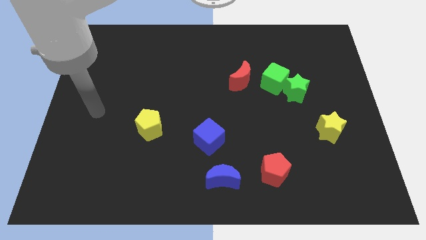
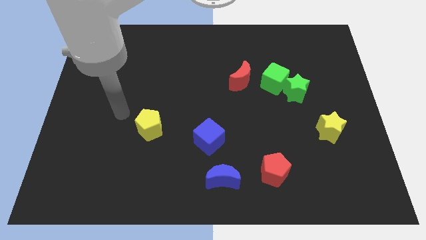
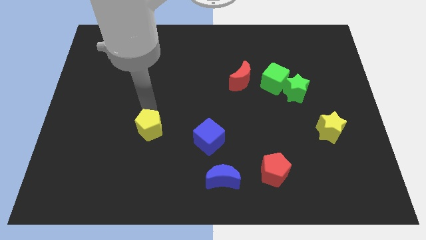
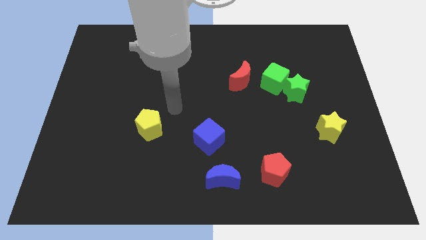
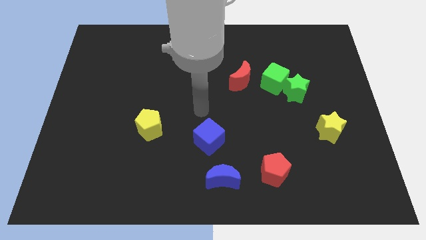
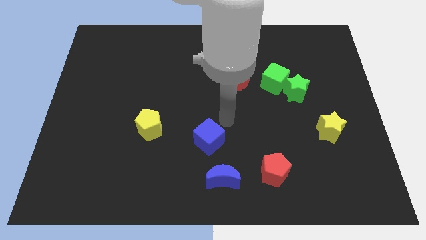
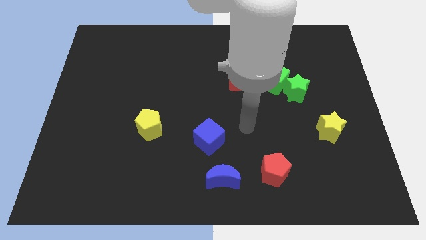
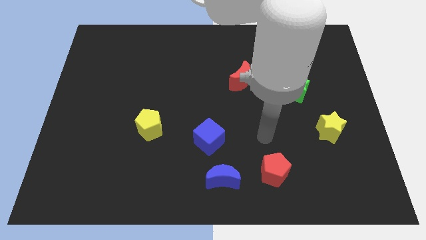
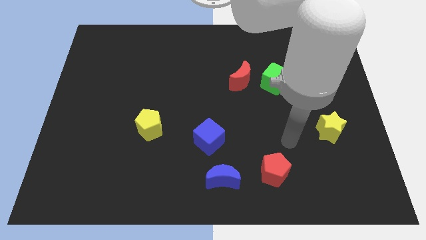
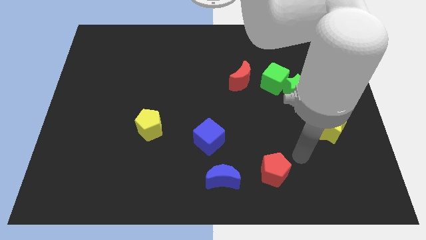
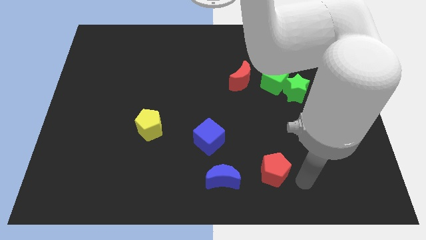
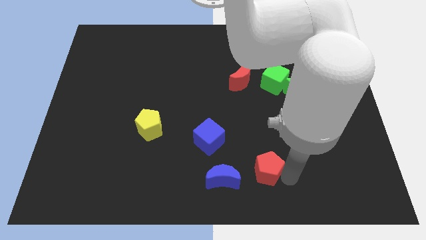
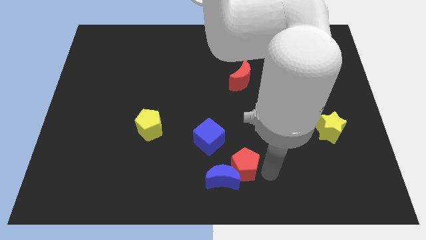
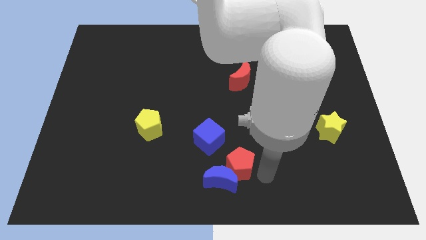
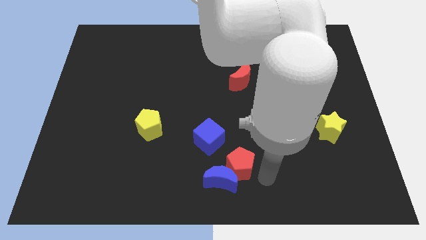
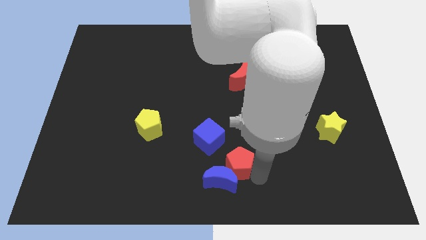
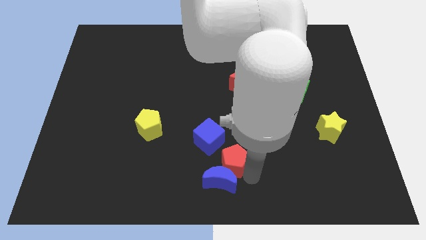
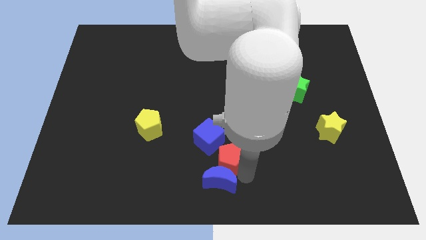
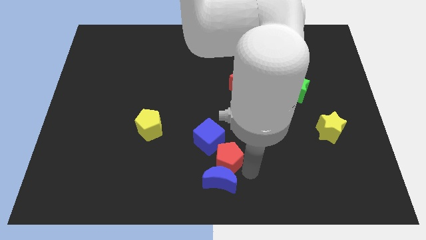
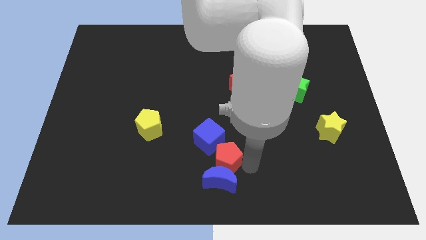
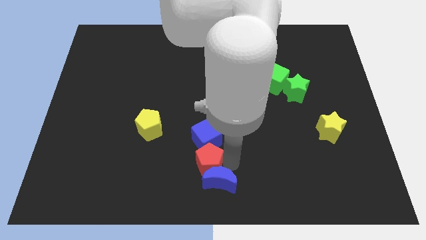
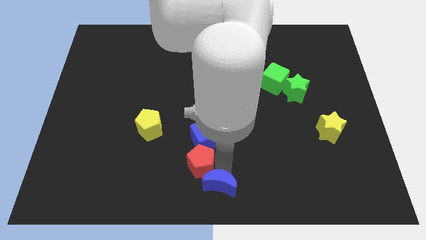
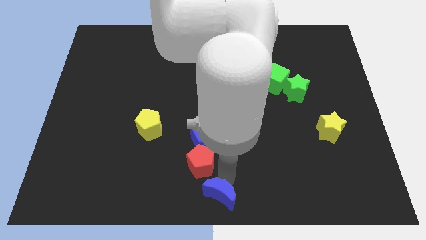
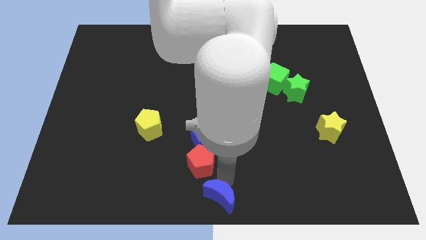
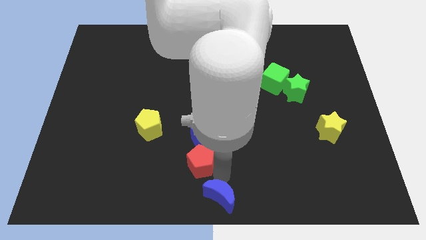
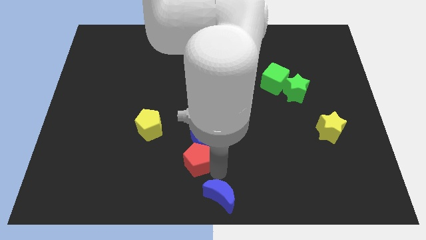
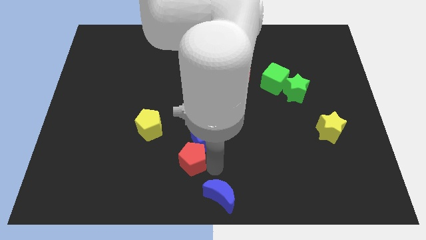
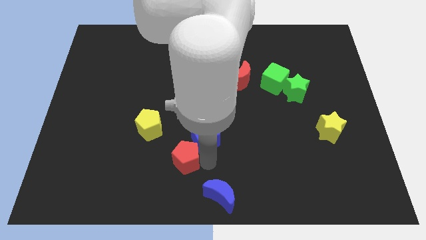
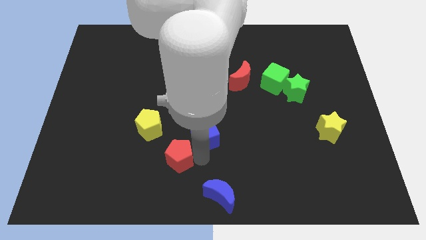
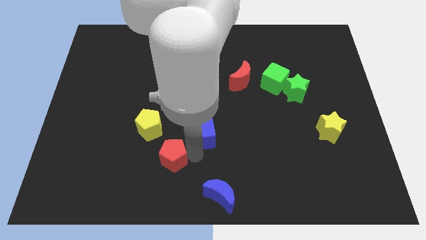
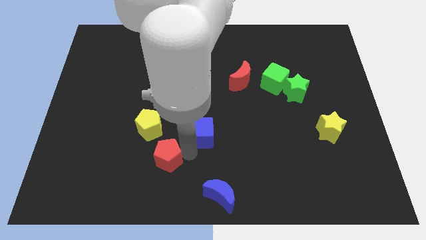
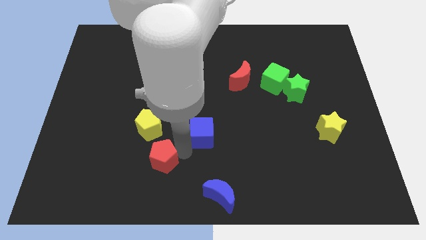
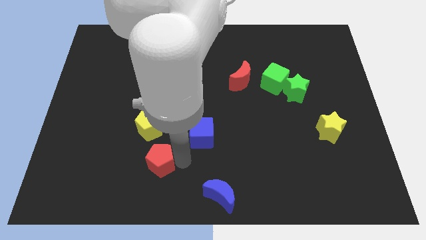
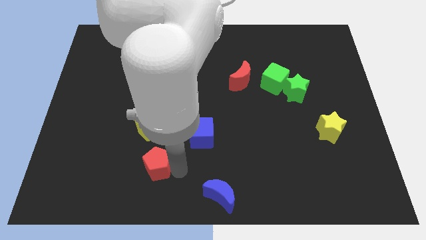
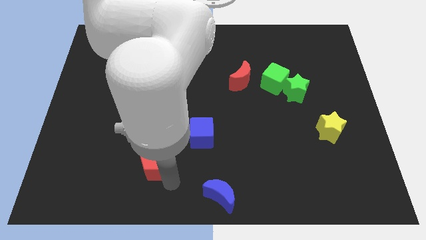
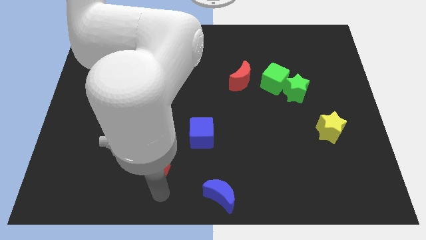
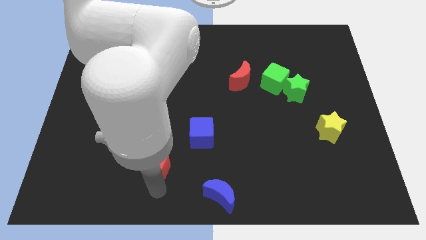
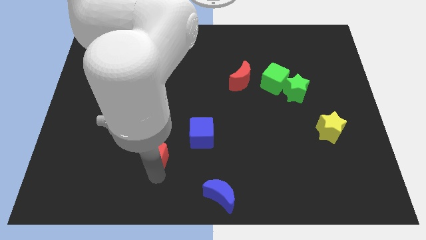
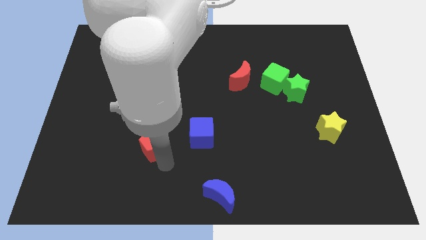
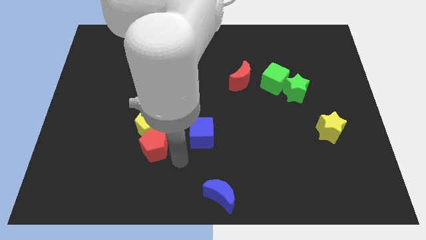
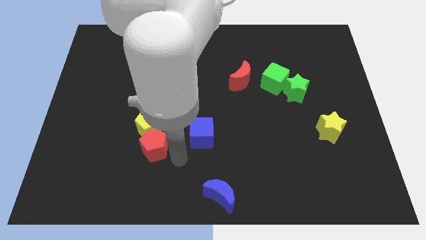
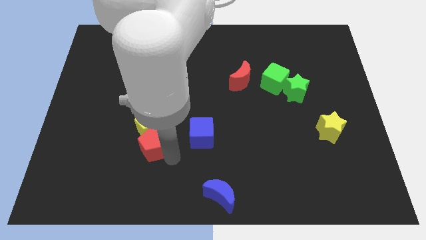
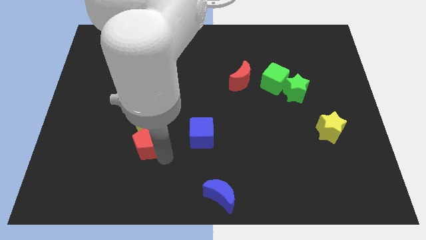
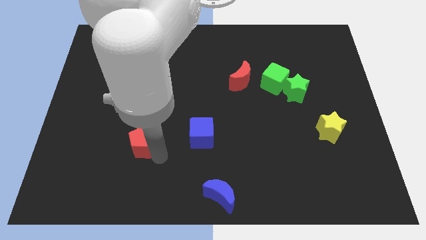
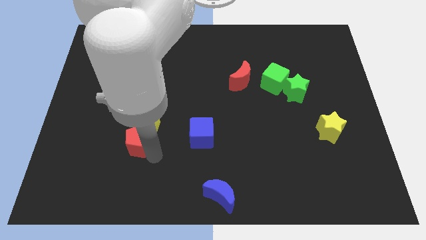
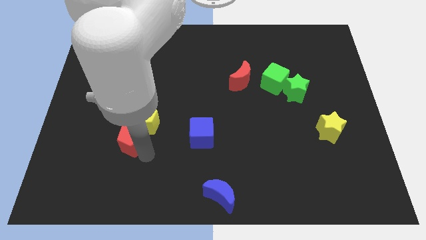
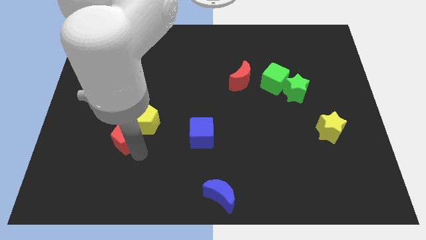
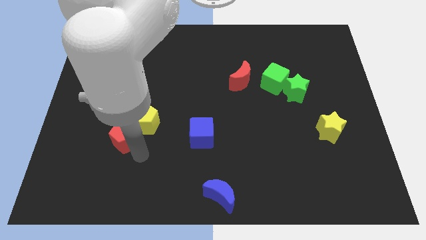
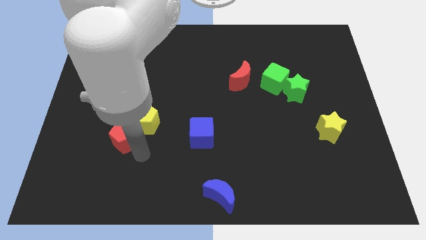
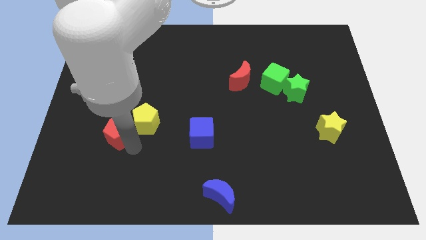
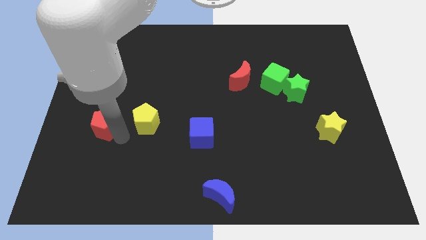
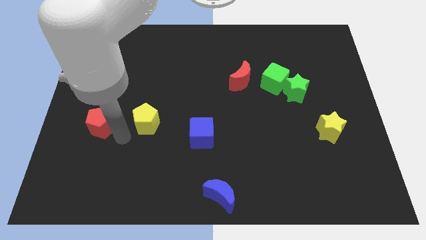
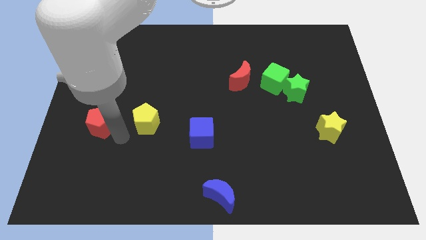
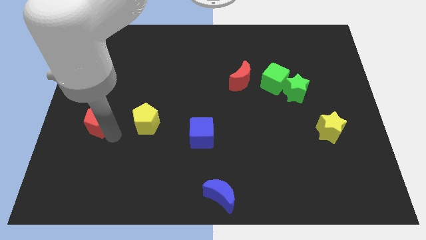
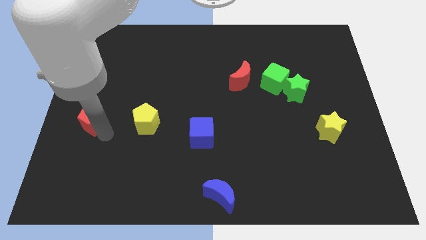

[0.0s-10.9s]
slide the red pentagon to the left side of the board

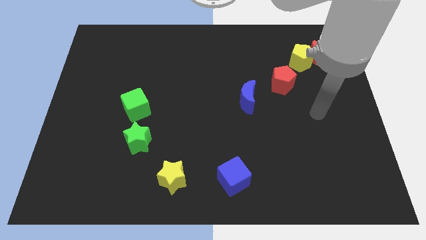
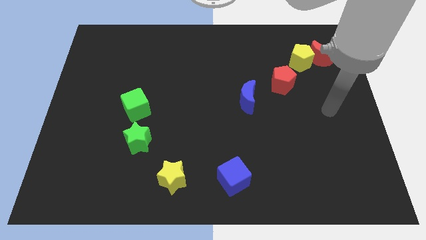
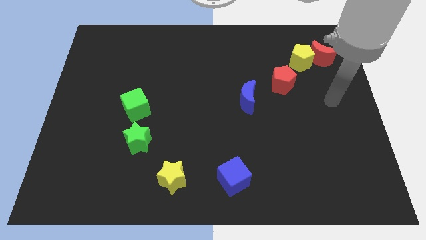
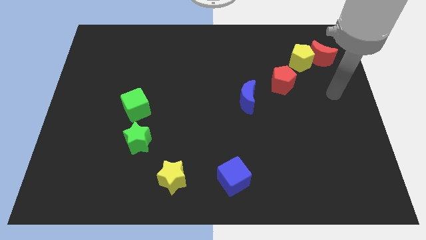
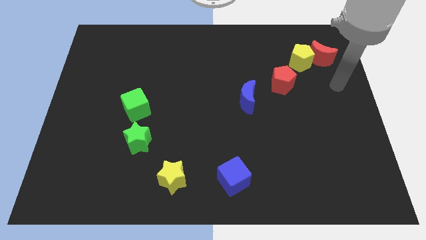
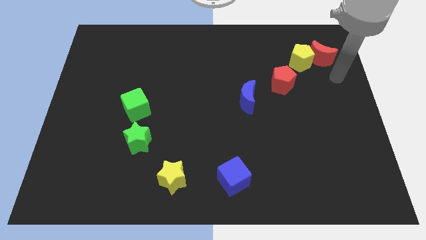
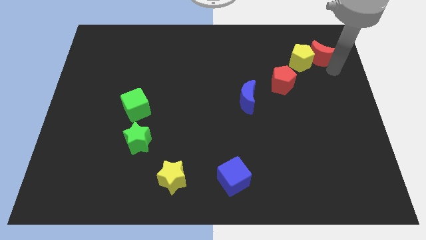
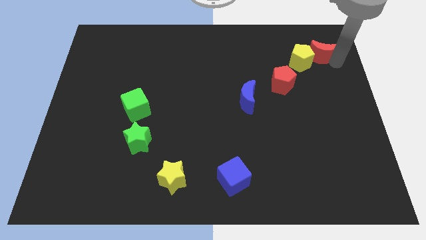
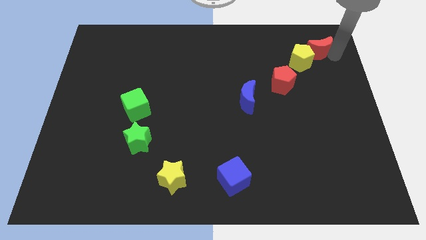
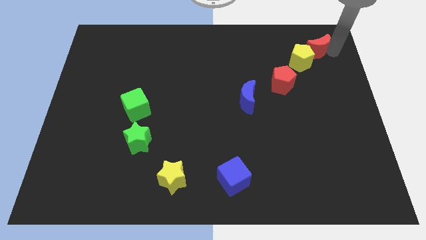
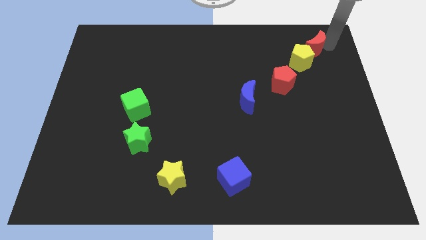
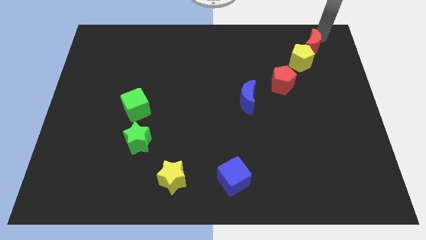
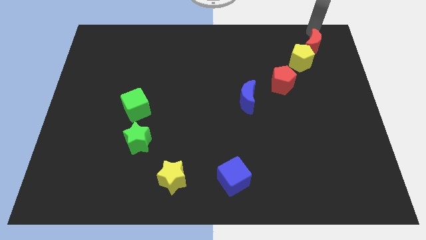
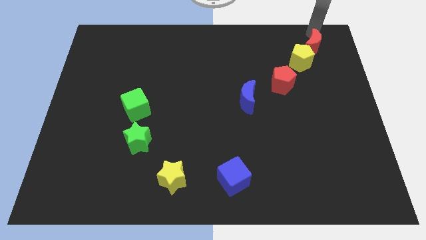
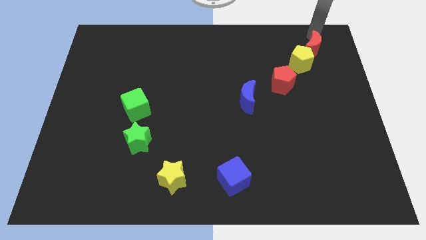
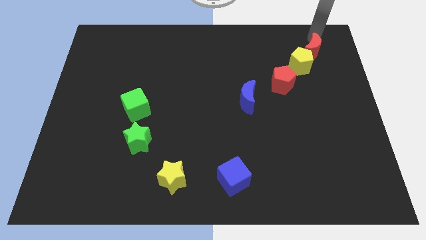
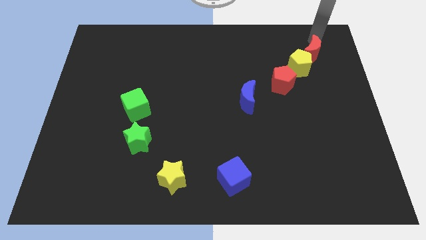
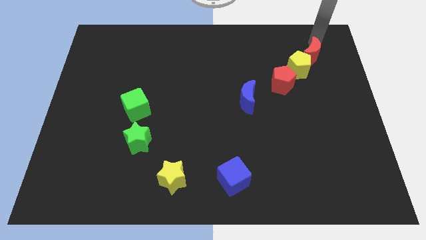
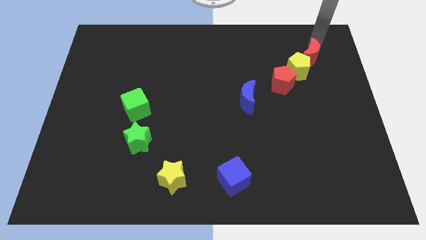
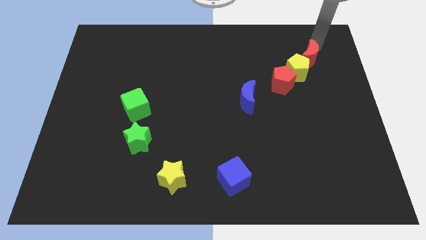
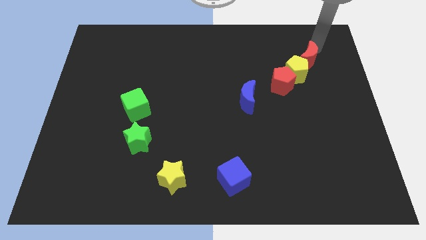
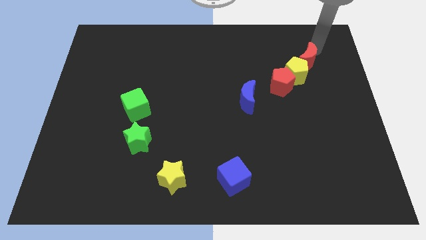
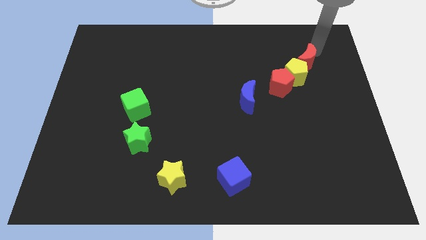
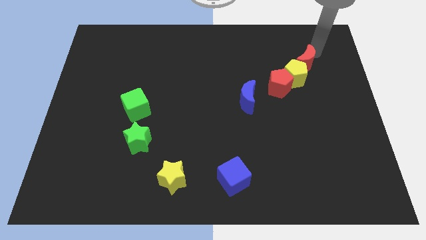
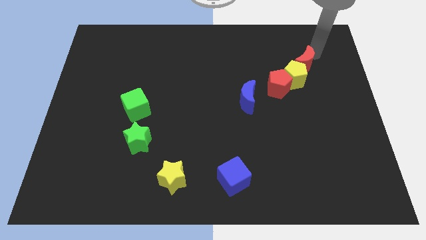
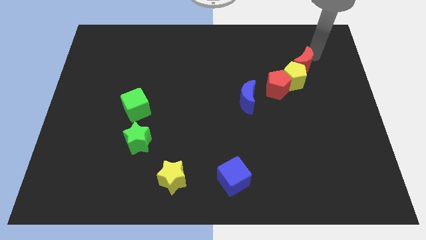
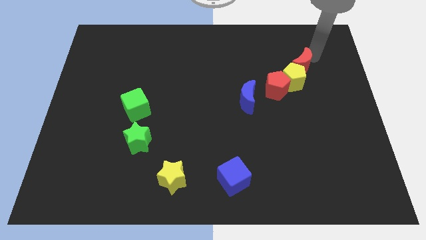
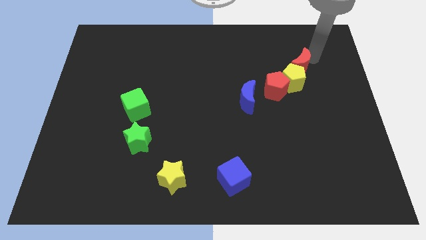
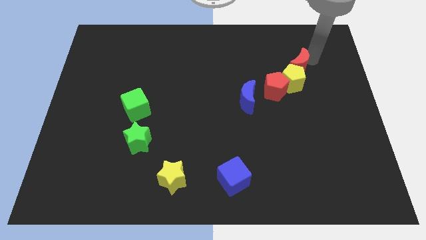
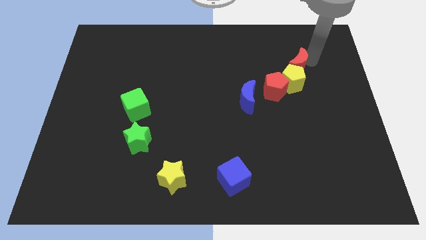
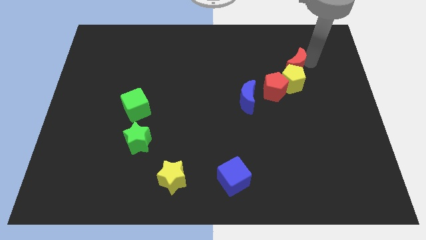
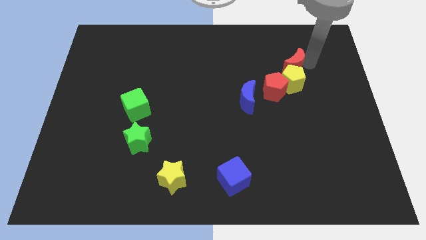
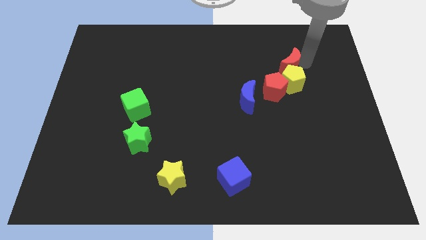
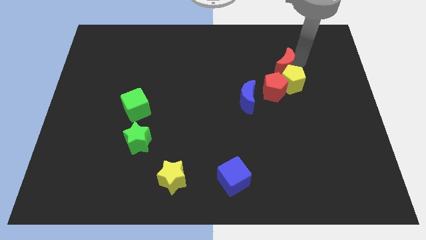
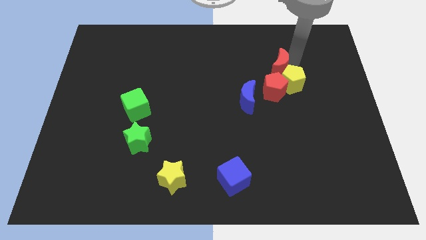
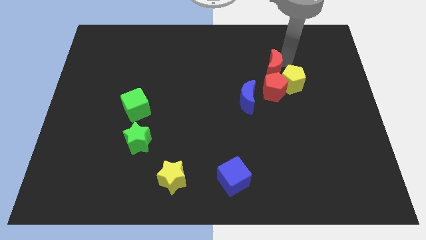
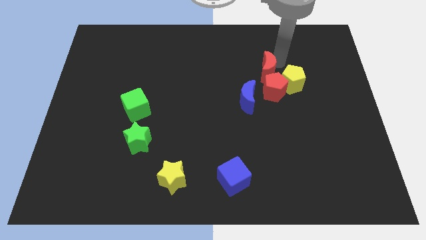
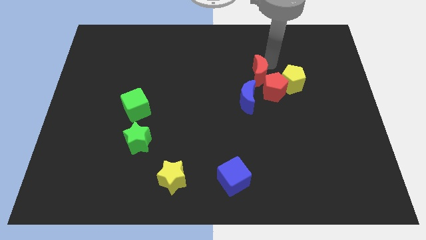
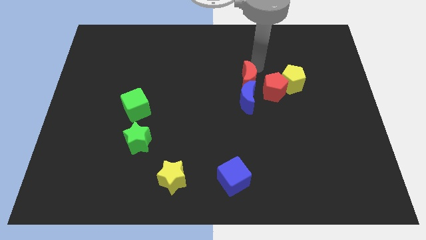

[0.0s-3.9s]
slide the red moon to the center
